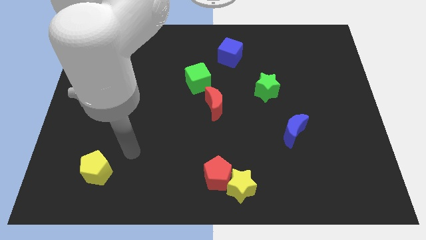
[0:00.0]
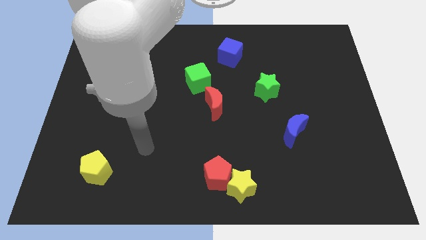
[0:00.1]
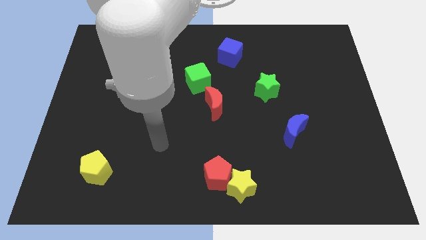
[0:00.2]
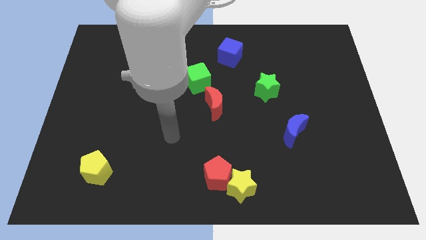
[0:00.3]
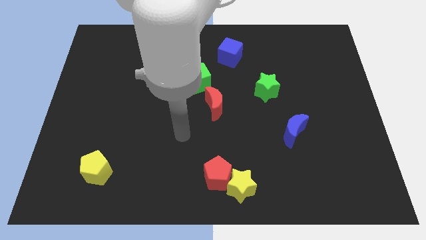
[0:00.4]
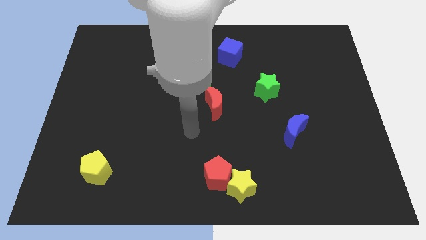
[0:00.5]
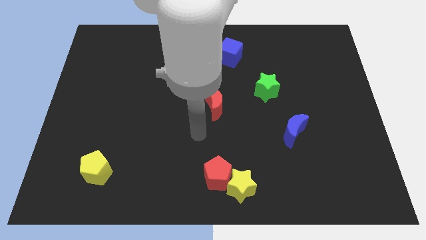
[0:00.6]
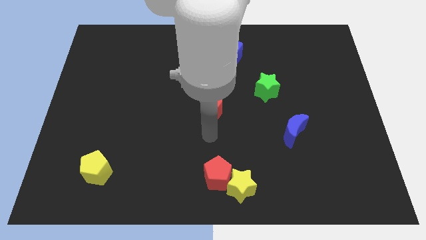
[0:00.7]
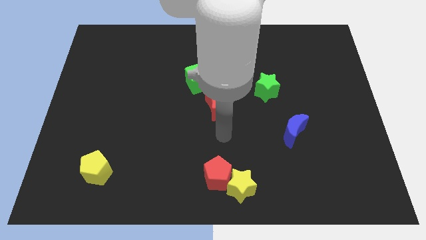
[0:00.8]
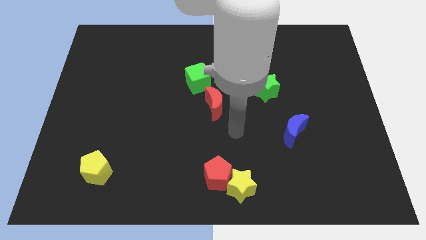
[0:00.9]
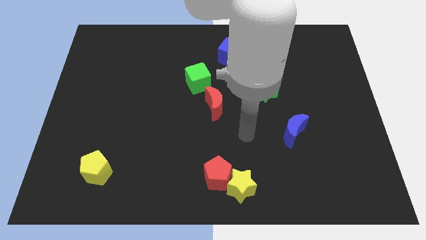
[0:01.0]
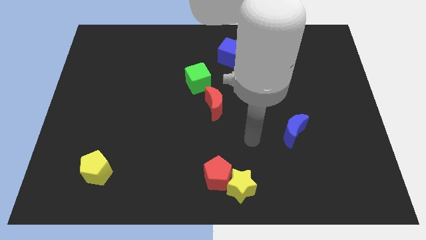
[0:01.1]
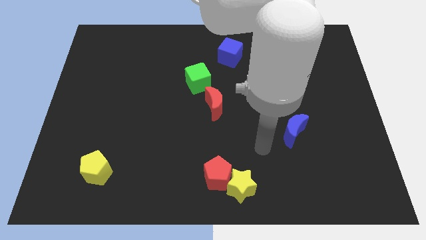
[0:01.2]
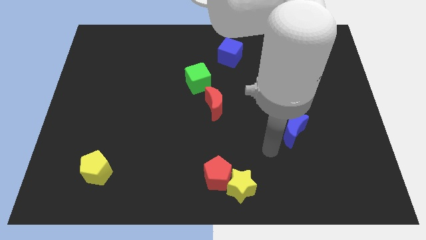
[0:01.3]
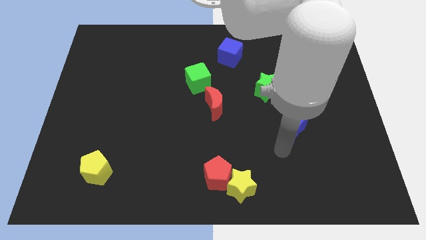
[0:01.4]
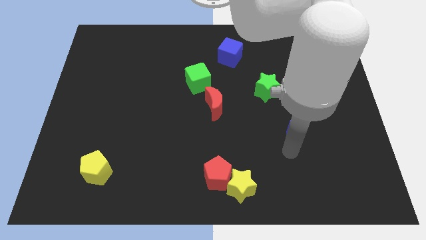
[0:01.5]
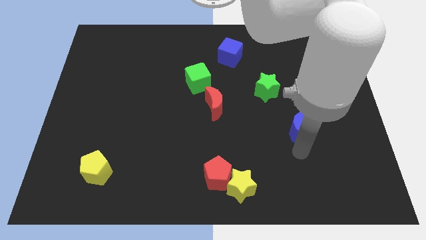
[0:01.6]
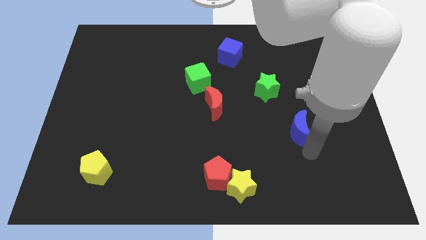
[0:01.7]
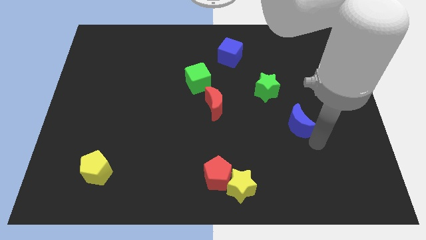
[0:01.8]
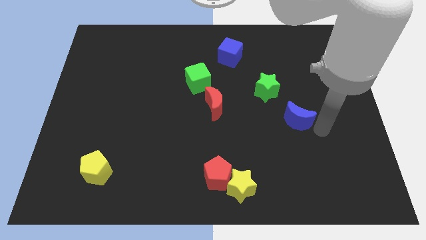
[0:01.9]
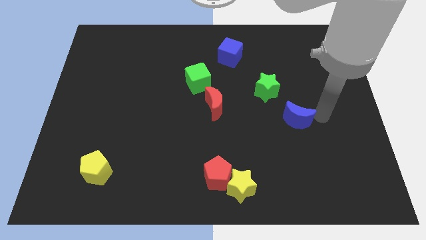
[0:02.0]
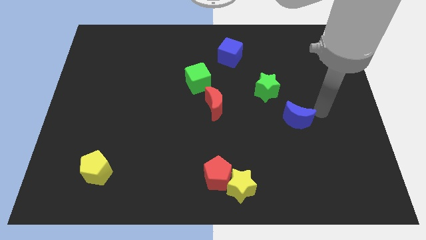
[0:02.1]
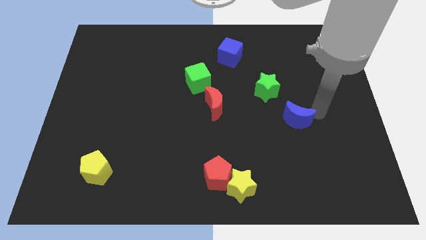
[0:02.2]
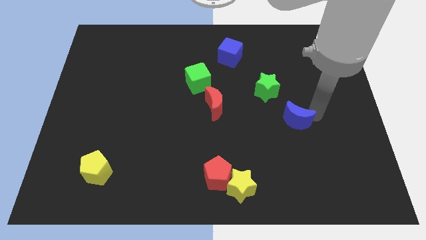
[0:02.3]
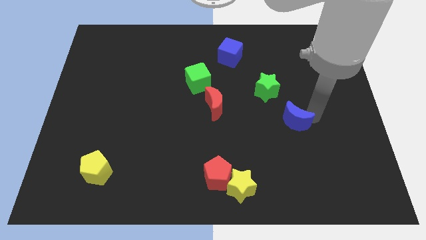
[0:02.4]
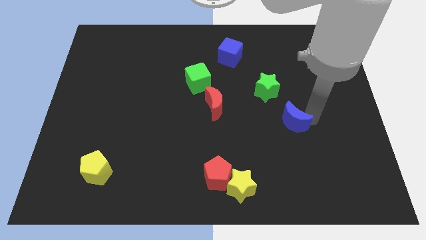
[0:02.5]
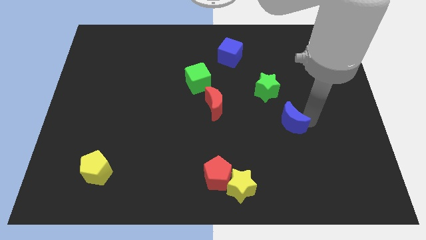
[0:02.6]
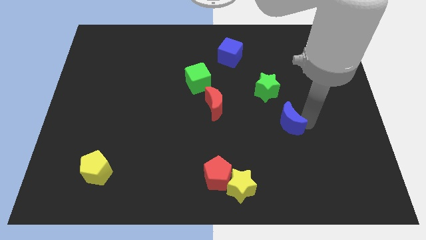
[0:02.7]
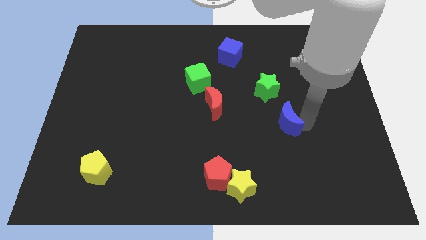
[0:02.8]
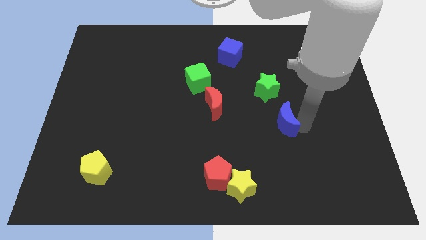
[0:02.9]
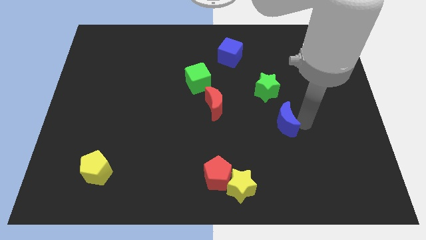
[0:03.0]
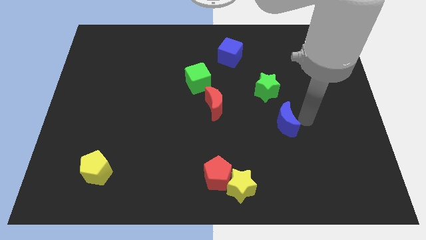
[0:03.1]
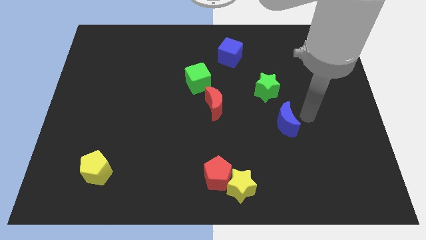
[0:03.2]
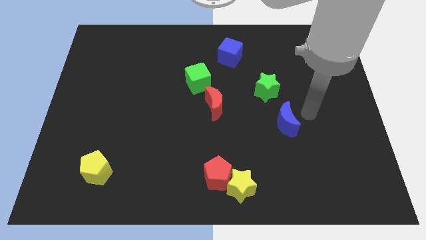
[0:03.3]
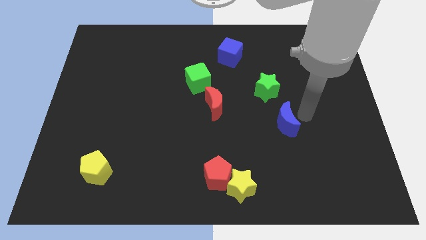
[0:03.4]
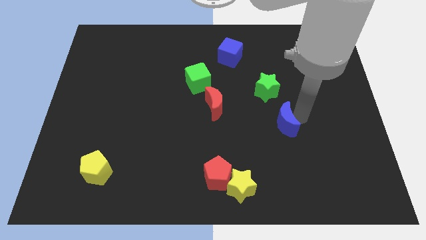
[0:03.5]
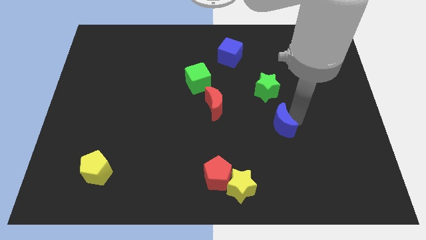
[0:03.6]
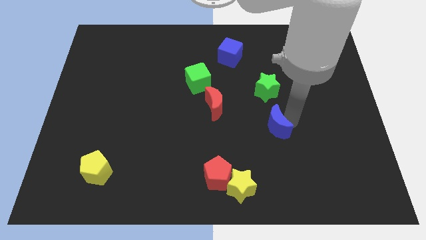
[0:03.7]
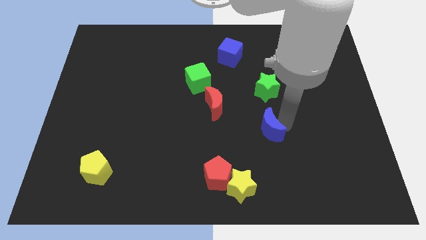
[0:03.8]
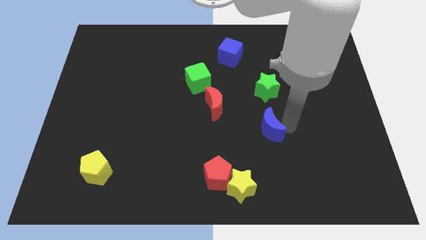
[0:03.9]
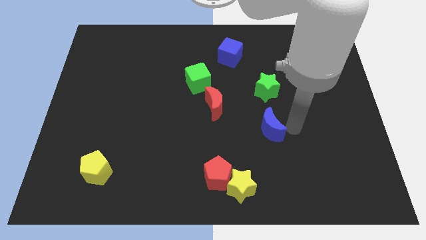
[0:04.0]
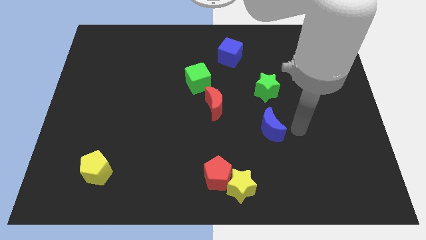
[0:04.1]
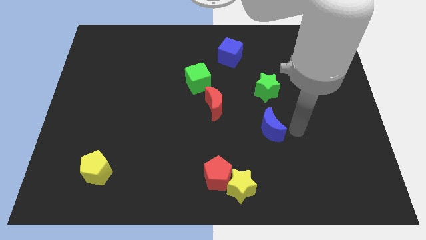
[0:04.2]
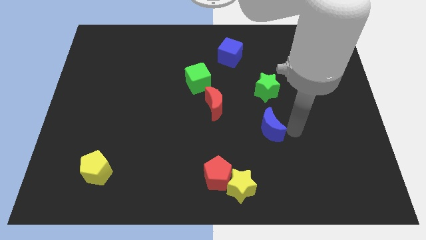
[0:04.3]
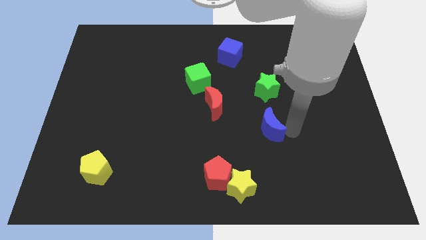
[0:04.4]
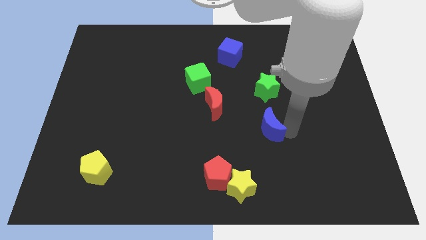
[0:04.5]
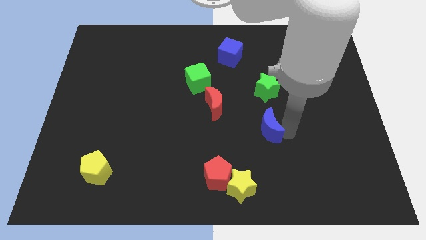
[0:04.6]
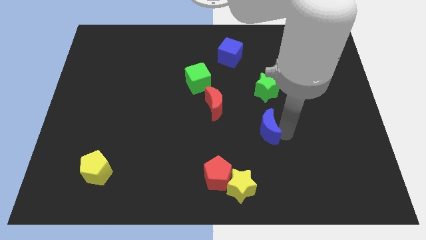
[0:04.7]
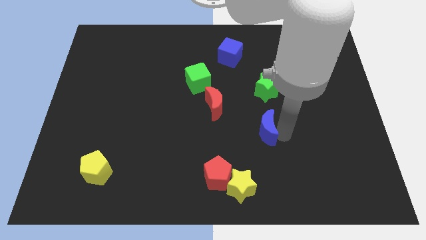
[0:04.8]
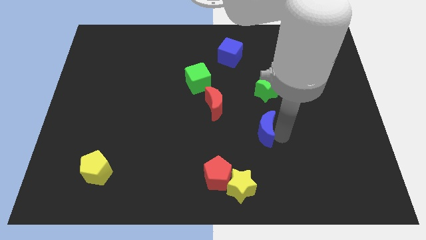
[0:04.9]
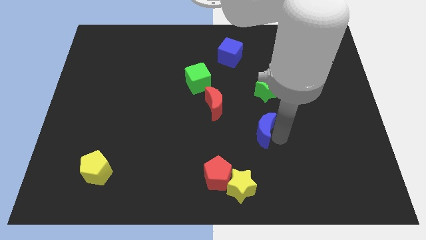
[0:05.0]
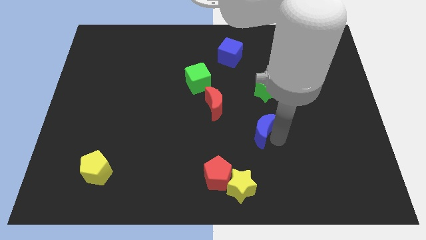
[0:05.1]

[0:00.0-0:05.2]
push the blue moon somewhat left

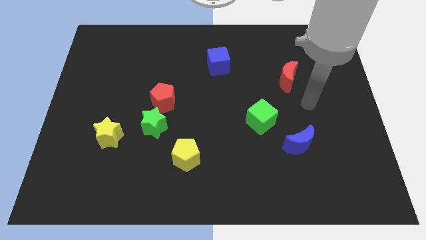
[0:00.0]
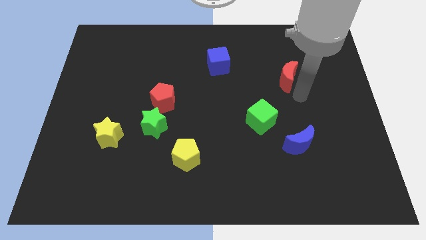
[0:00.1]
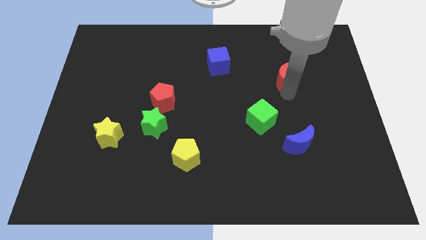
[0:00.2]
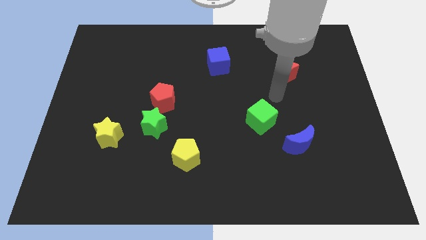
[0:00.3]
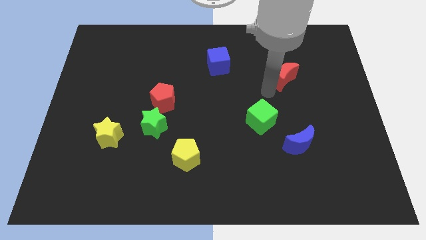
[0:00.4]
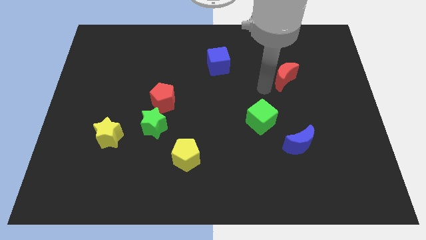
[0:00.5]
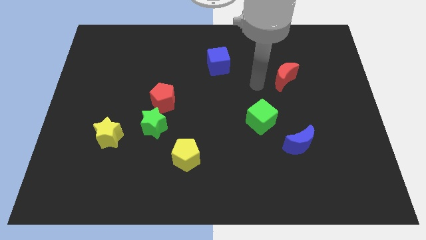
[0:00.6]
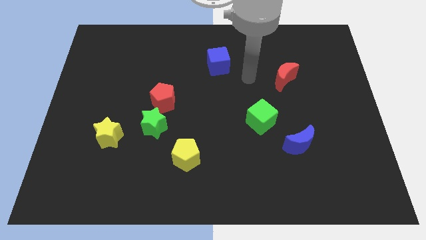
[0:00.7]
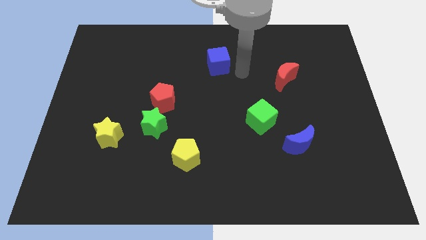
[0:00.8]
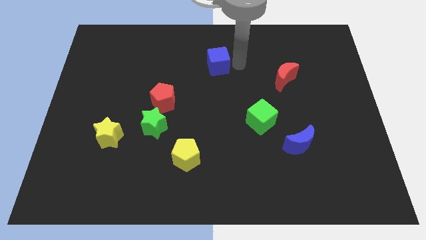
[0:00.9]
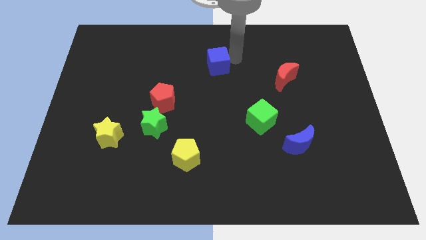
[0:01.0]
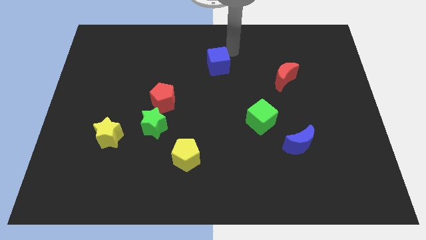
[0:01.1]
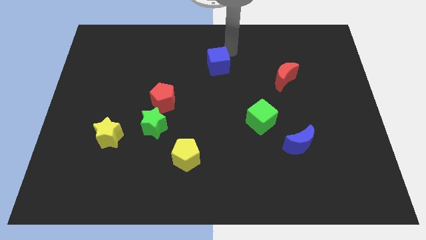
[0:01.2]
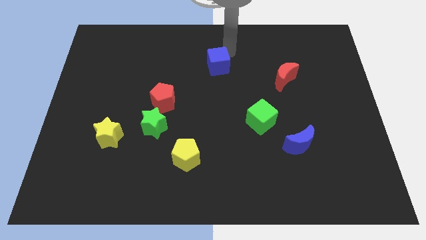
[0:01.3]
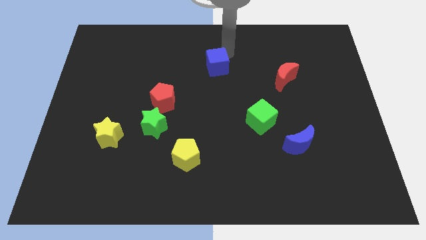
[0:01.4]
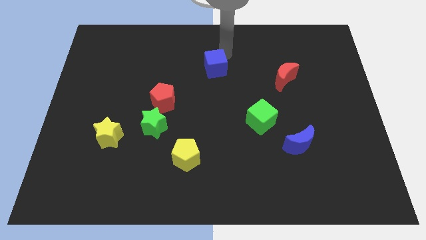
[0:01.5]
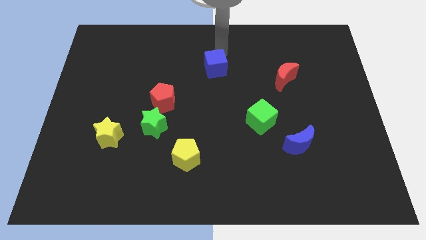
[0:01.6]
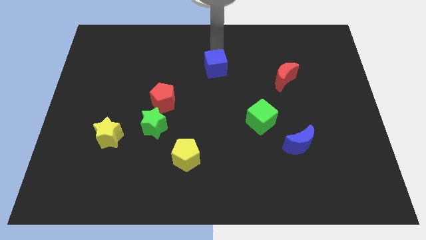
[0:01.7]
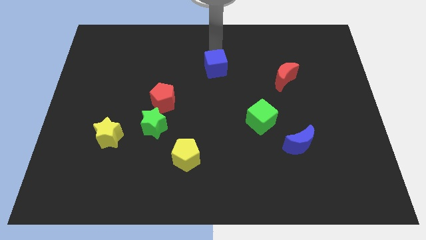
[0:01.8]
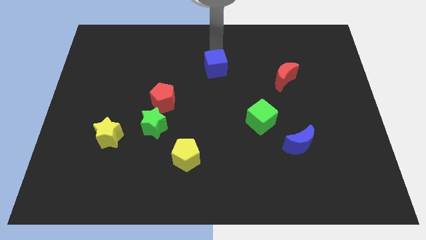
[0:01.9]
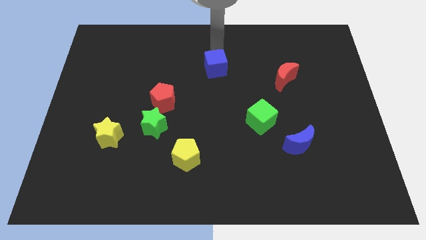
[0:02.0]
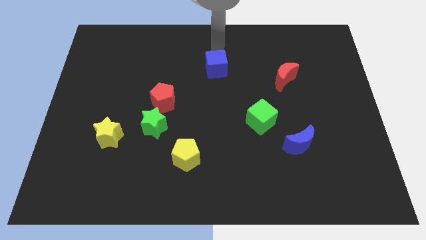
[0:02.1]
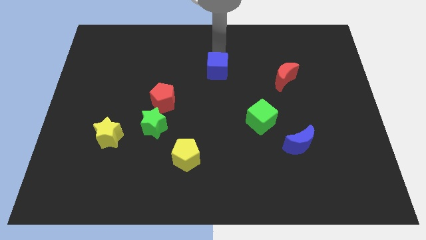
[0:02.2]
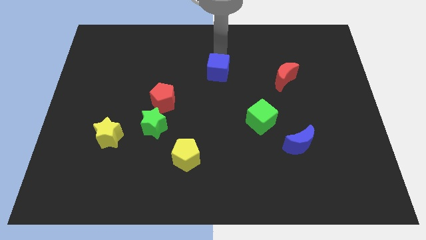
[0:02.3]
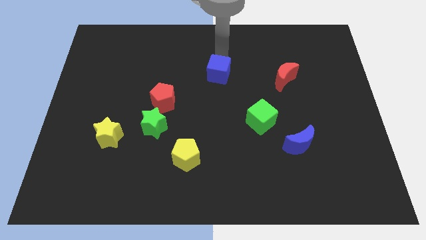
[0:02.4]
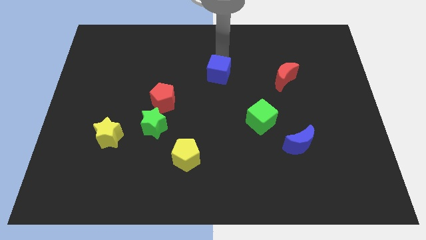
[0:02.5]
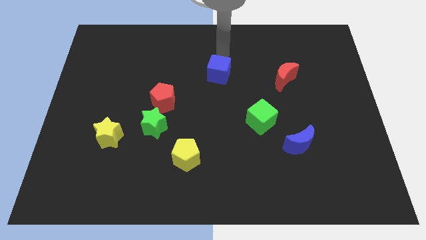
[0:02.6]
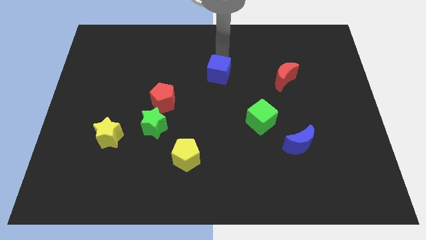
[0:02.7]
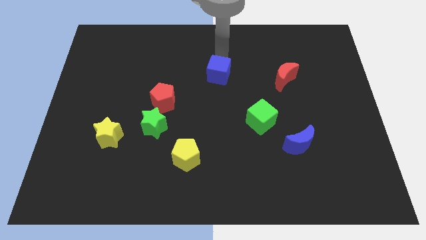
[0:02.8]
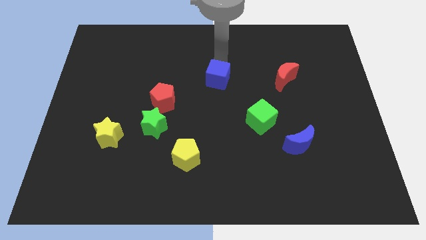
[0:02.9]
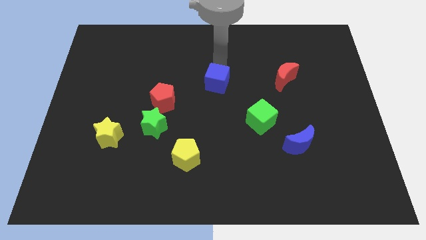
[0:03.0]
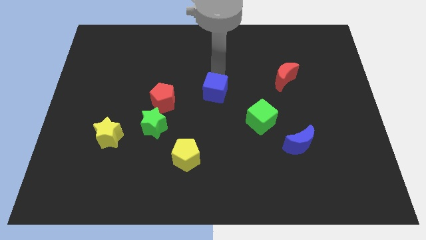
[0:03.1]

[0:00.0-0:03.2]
push the blue cube a bit down
